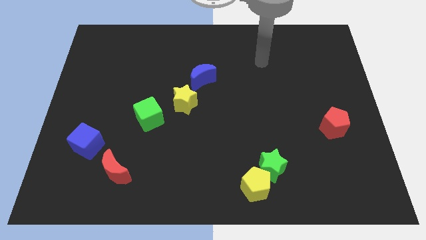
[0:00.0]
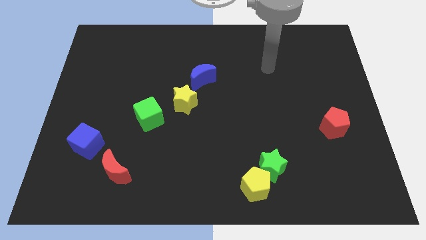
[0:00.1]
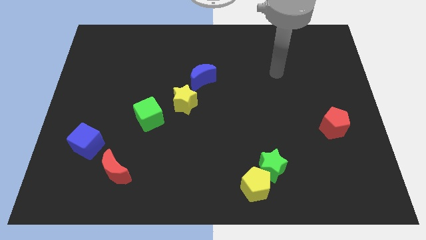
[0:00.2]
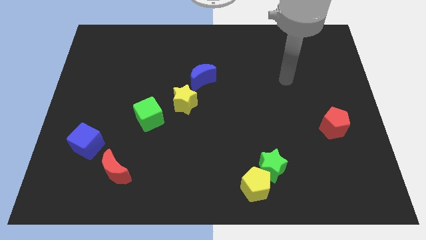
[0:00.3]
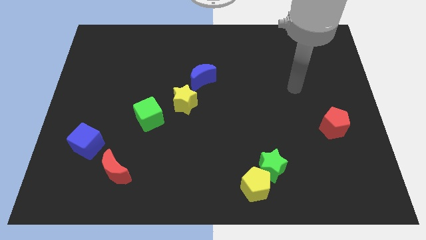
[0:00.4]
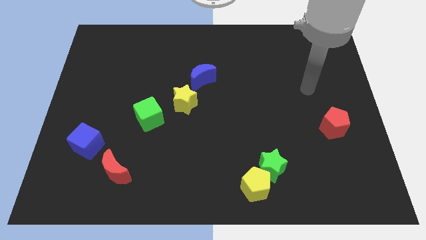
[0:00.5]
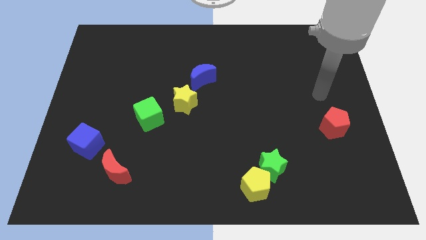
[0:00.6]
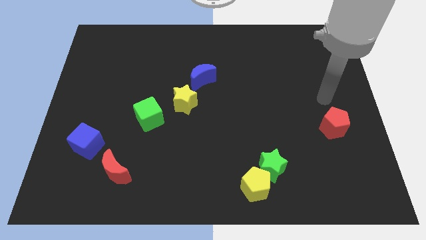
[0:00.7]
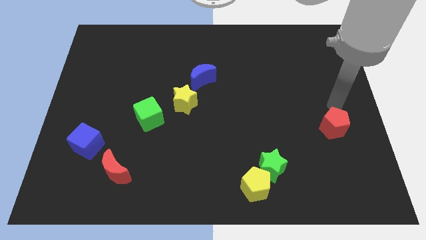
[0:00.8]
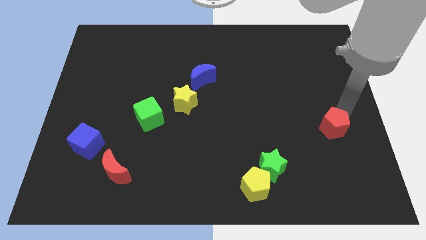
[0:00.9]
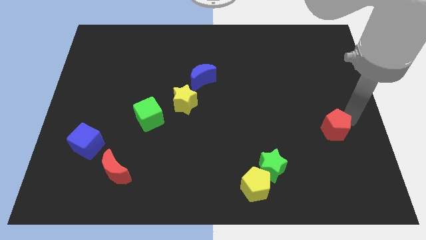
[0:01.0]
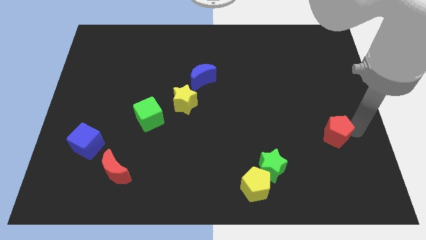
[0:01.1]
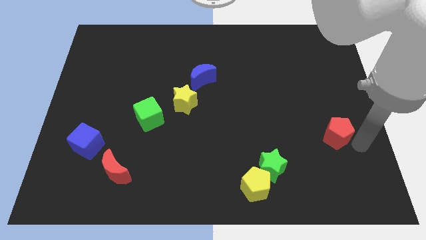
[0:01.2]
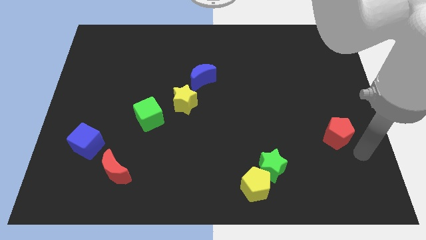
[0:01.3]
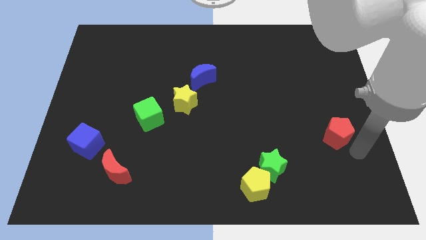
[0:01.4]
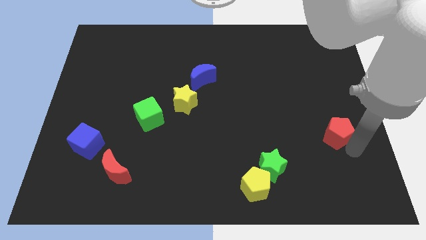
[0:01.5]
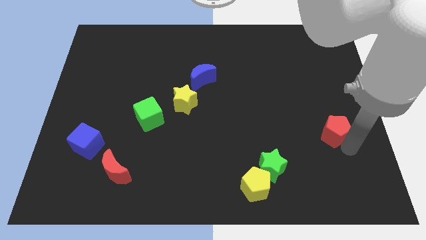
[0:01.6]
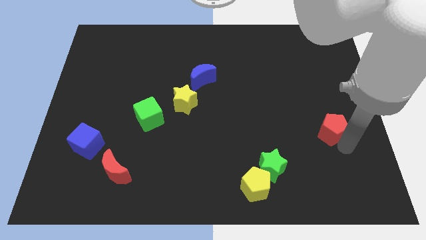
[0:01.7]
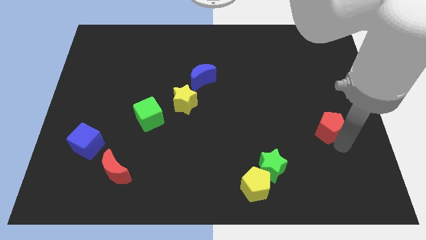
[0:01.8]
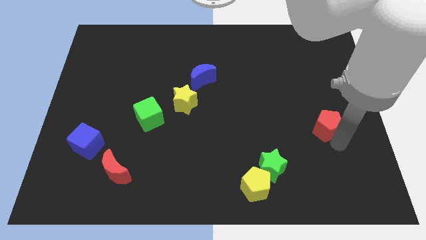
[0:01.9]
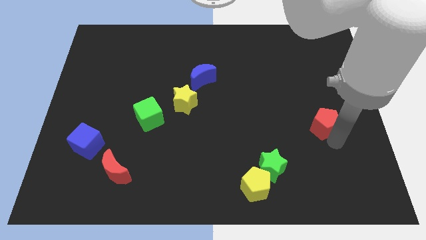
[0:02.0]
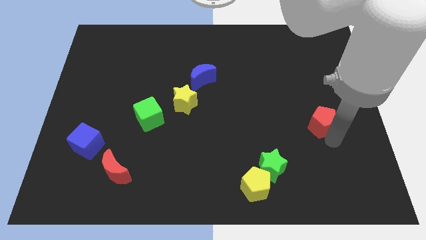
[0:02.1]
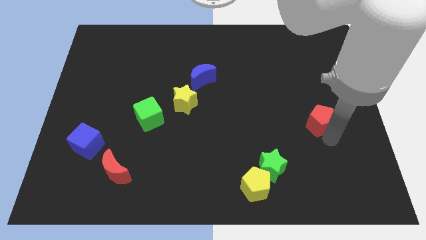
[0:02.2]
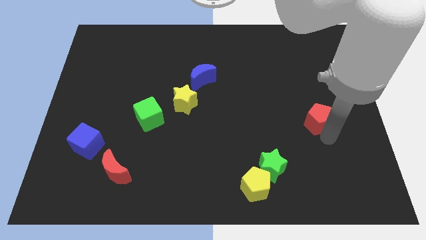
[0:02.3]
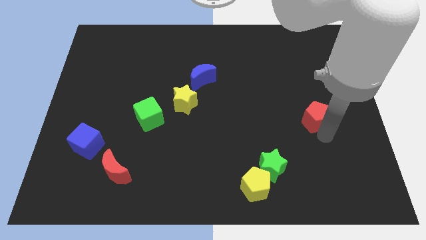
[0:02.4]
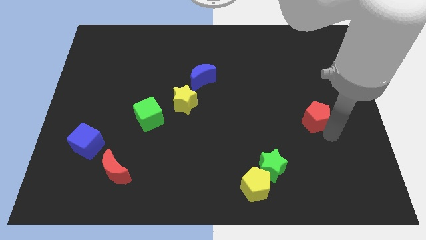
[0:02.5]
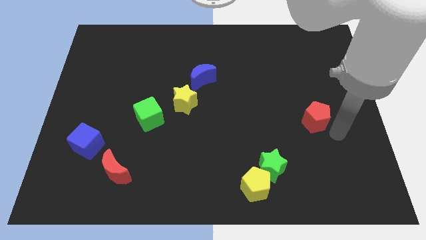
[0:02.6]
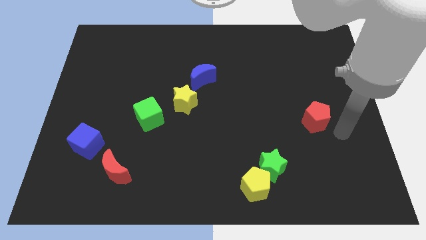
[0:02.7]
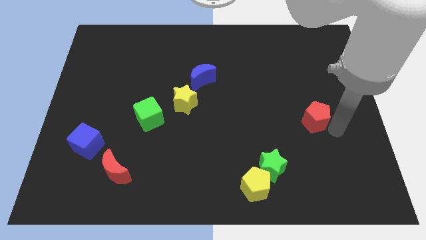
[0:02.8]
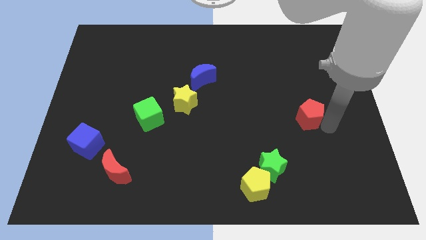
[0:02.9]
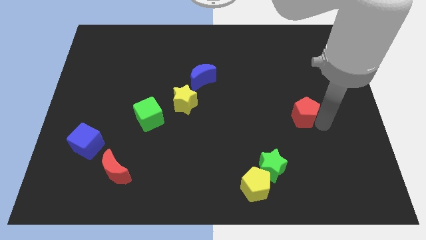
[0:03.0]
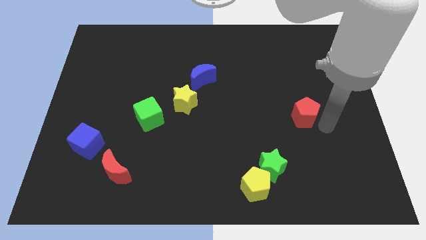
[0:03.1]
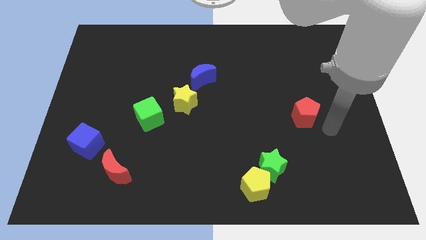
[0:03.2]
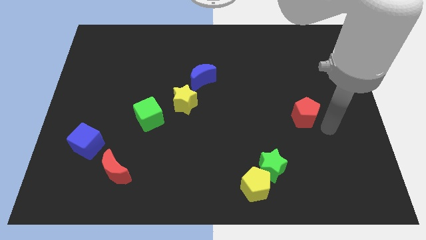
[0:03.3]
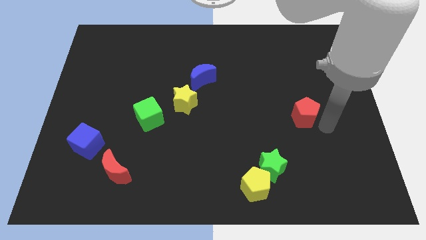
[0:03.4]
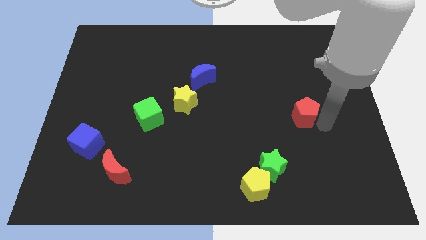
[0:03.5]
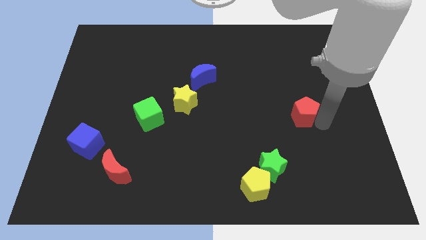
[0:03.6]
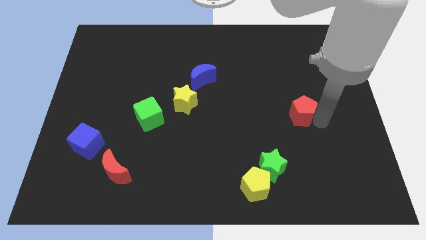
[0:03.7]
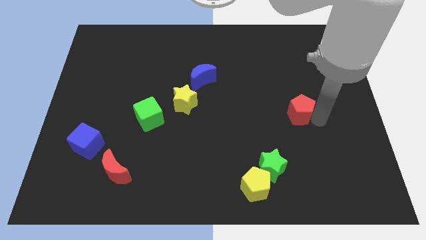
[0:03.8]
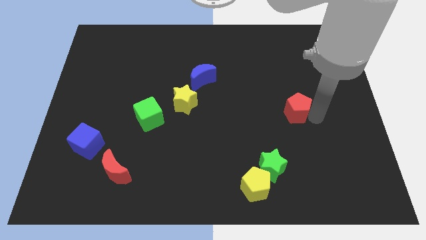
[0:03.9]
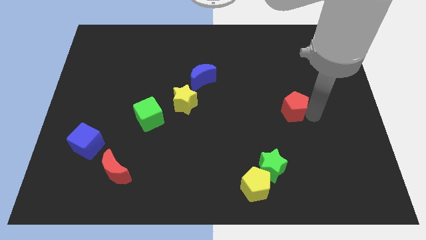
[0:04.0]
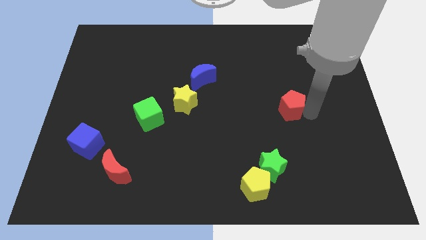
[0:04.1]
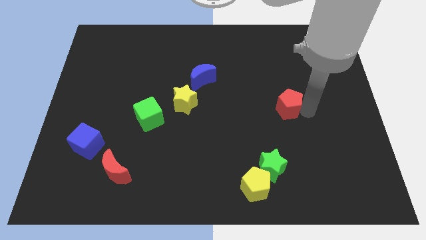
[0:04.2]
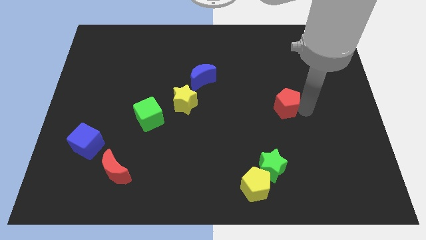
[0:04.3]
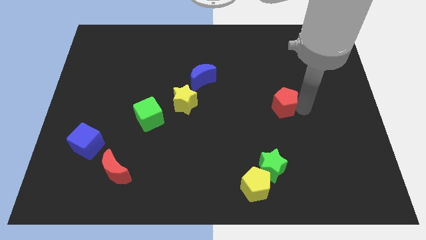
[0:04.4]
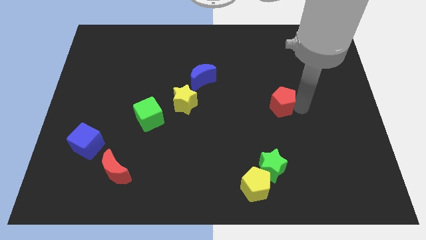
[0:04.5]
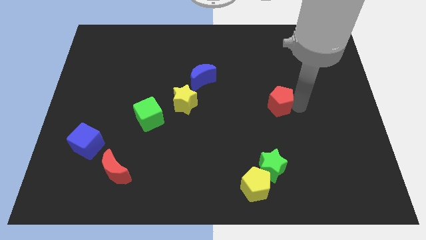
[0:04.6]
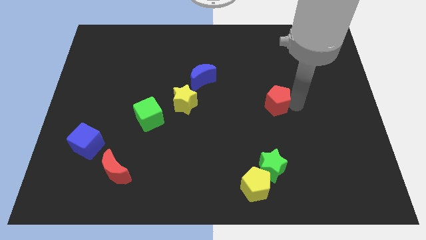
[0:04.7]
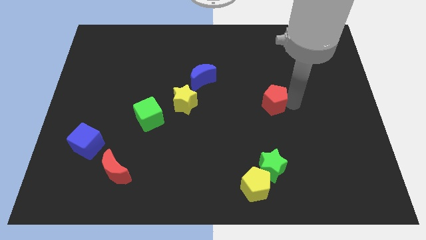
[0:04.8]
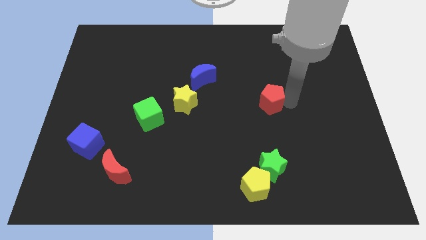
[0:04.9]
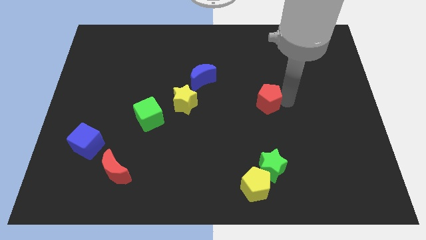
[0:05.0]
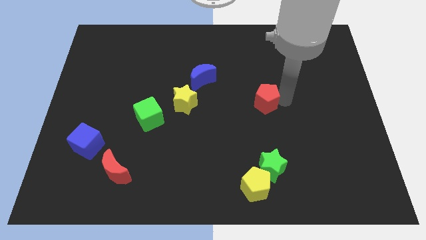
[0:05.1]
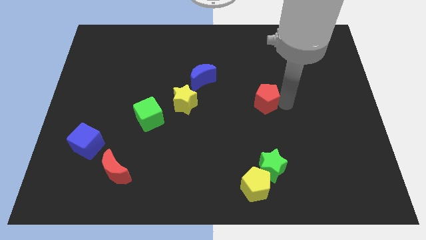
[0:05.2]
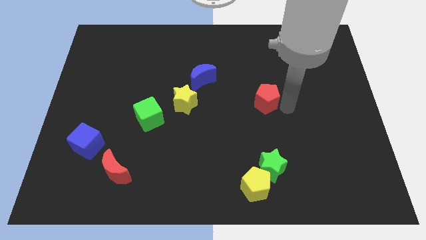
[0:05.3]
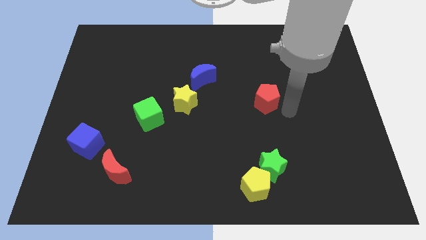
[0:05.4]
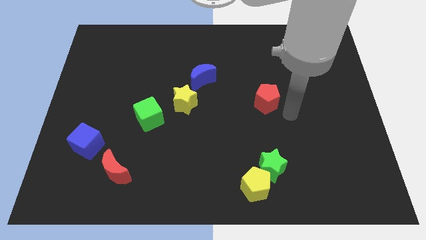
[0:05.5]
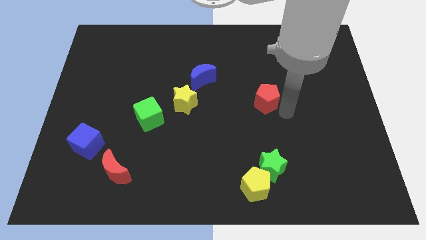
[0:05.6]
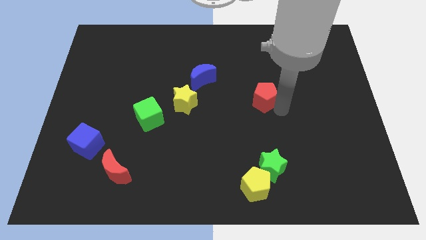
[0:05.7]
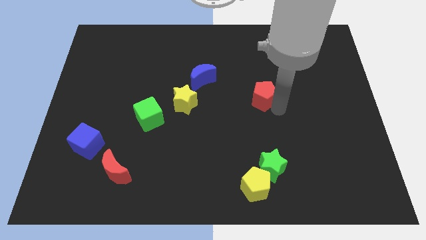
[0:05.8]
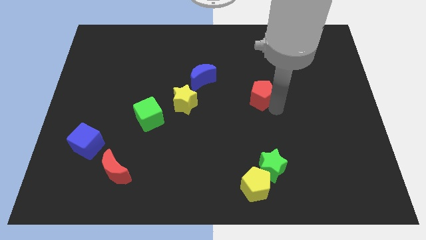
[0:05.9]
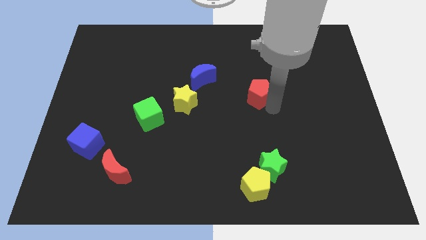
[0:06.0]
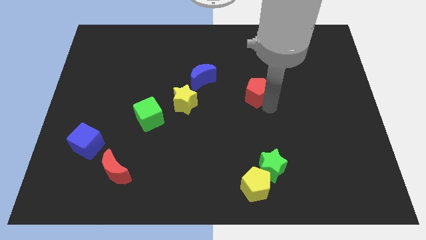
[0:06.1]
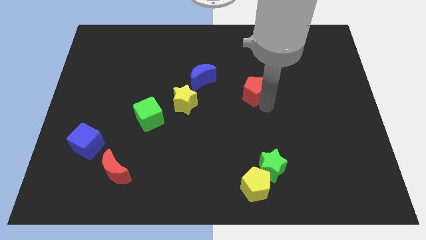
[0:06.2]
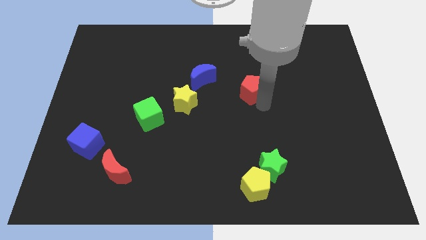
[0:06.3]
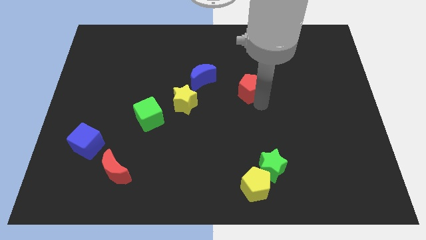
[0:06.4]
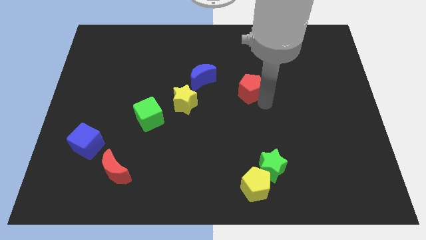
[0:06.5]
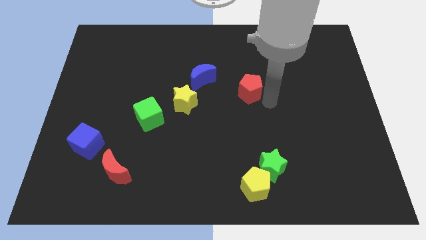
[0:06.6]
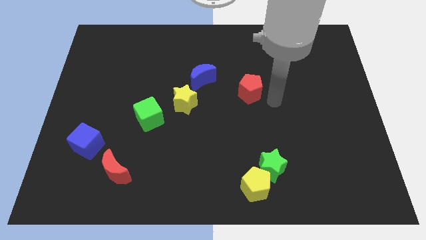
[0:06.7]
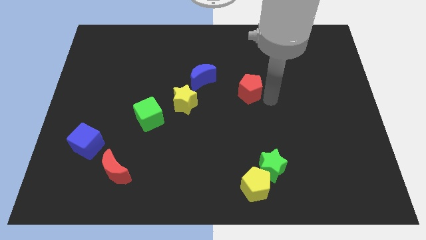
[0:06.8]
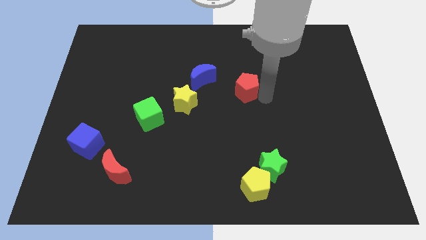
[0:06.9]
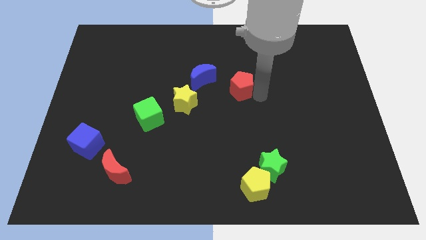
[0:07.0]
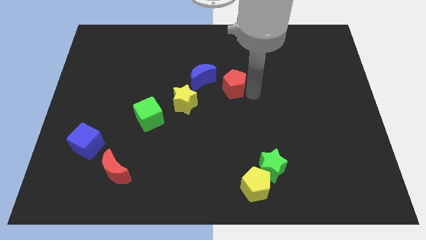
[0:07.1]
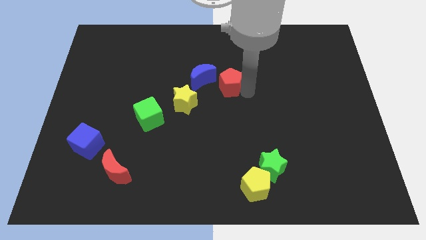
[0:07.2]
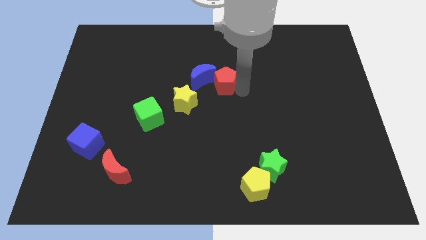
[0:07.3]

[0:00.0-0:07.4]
push the red pentagon to the top right side of the yellow star

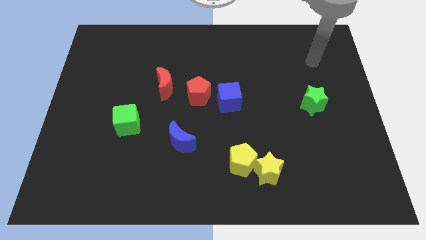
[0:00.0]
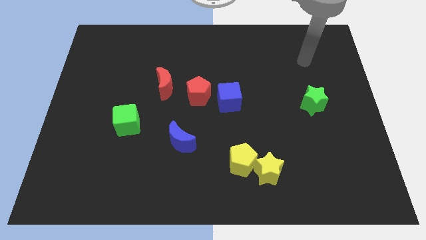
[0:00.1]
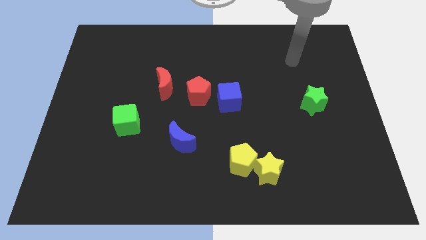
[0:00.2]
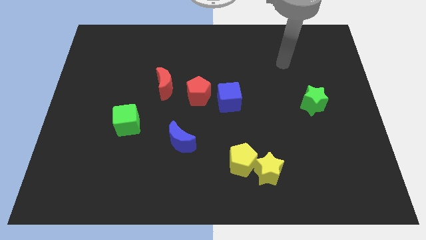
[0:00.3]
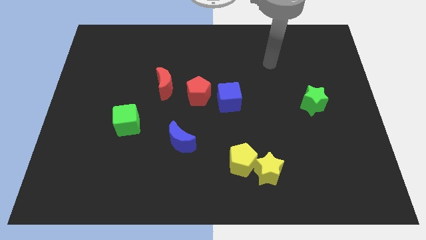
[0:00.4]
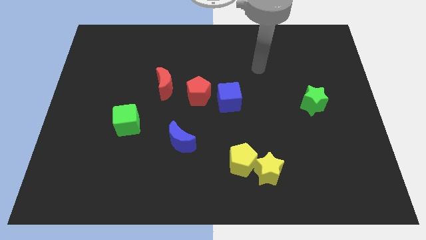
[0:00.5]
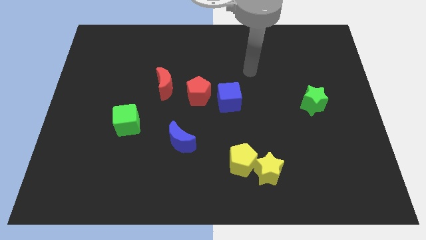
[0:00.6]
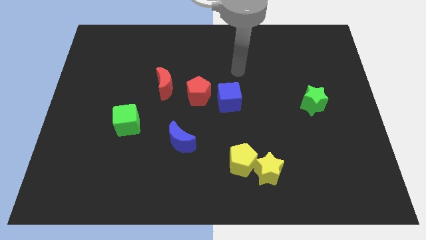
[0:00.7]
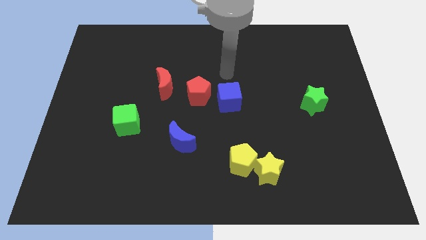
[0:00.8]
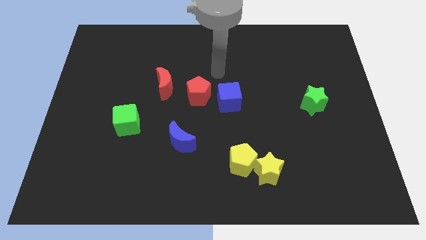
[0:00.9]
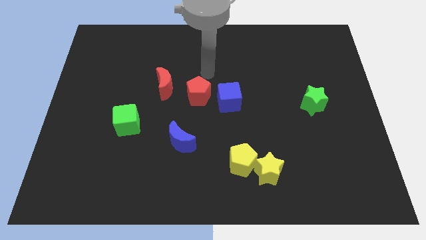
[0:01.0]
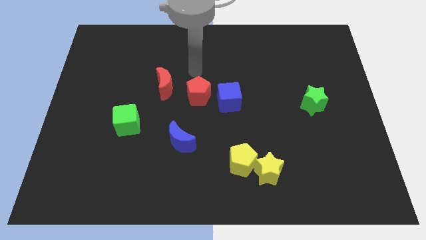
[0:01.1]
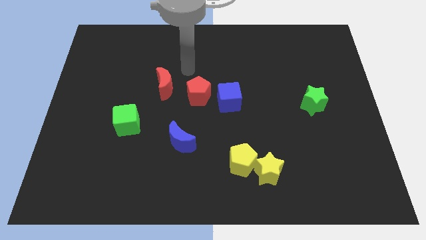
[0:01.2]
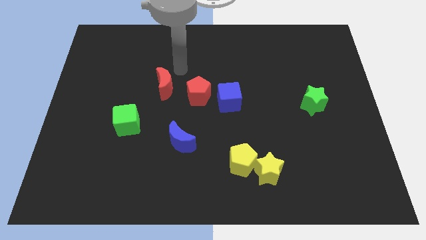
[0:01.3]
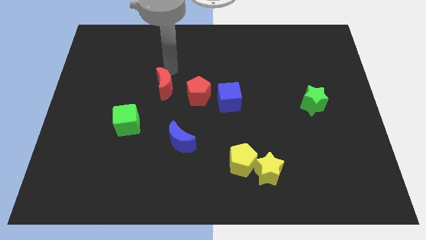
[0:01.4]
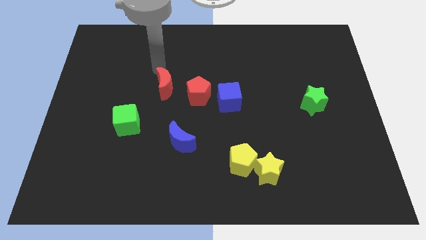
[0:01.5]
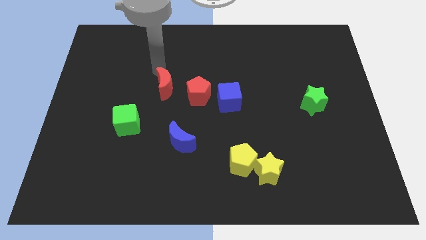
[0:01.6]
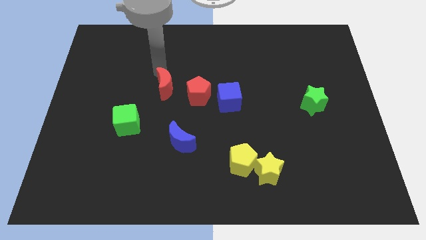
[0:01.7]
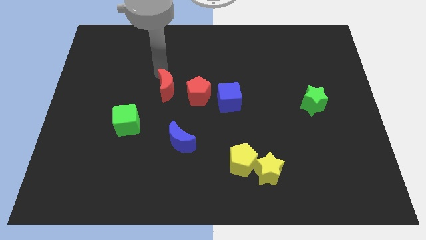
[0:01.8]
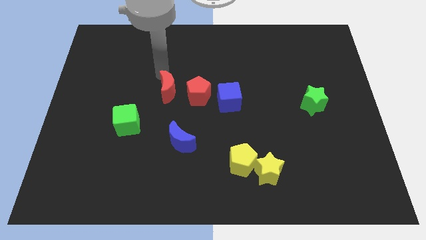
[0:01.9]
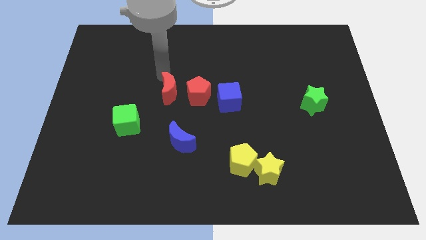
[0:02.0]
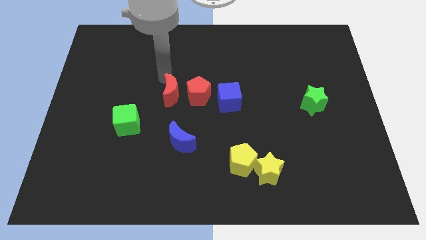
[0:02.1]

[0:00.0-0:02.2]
move the red moon diagonally down and to the left of the red pentagon
